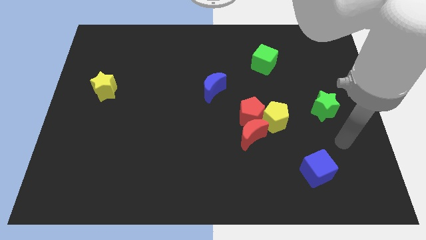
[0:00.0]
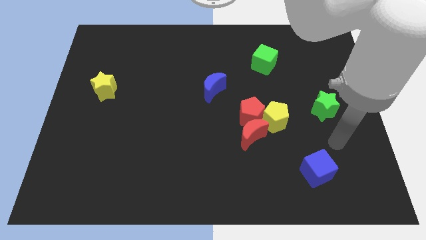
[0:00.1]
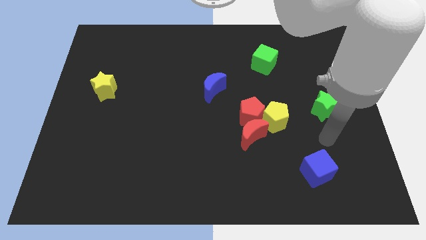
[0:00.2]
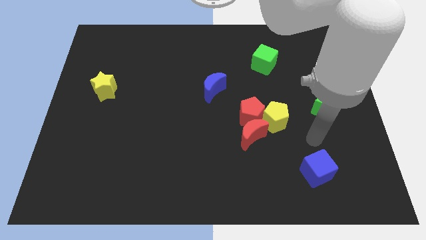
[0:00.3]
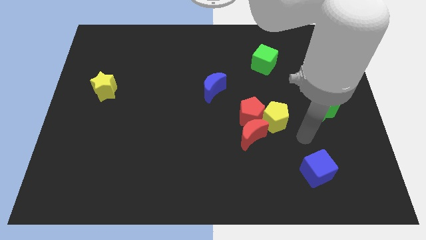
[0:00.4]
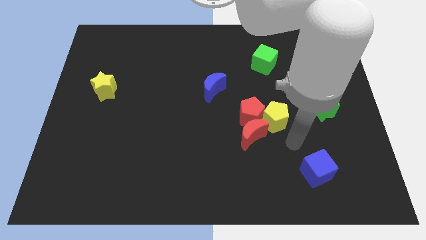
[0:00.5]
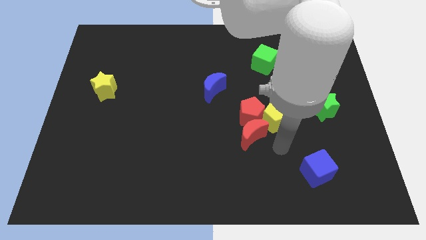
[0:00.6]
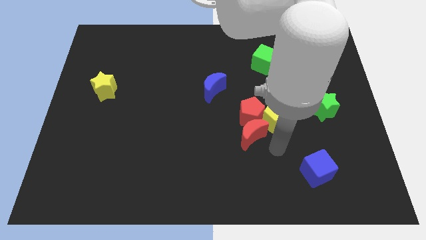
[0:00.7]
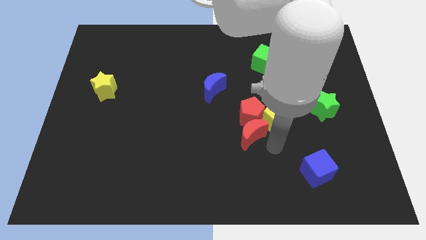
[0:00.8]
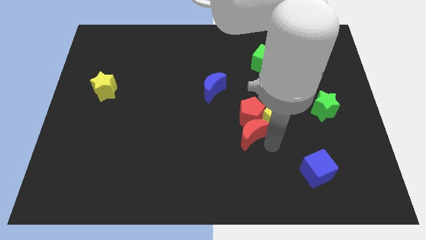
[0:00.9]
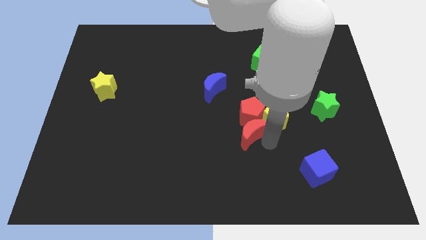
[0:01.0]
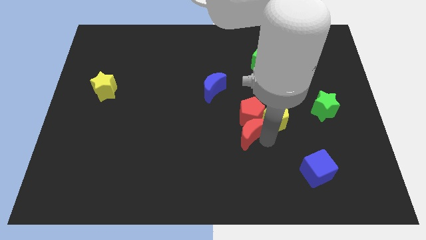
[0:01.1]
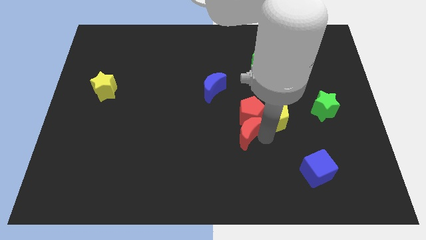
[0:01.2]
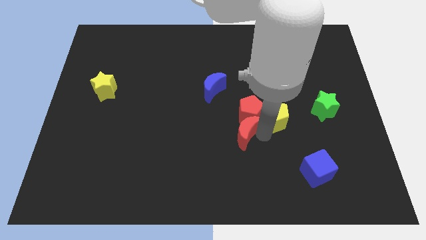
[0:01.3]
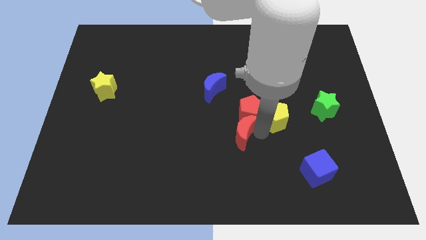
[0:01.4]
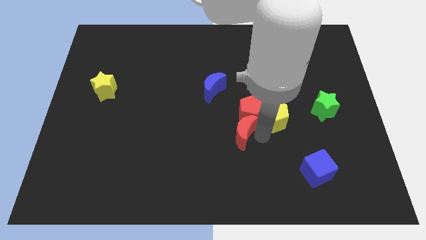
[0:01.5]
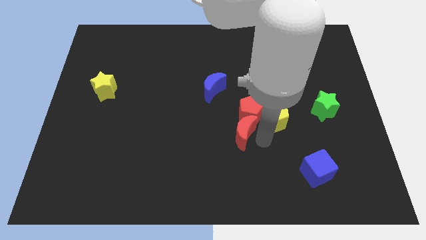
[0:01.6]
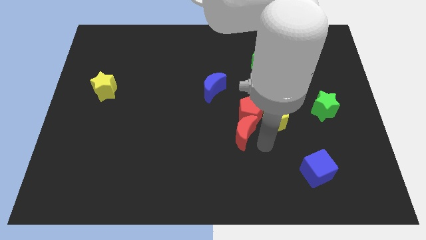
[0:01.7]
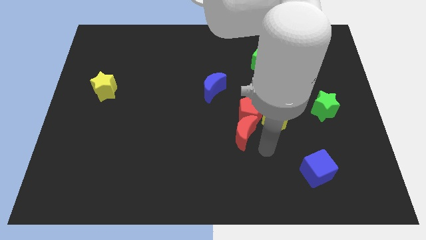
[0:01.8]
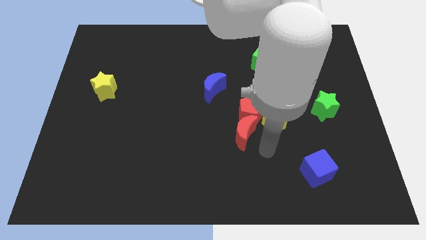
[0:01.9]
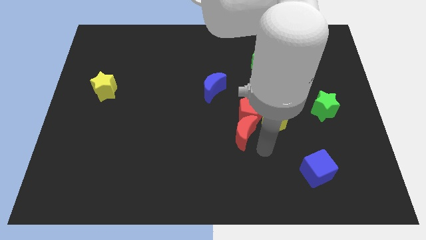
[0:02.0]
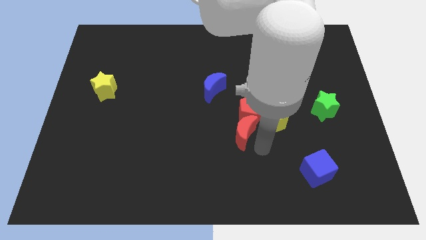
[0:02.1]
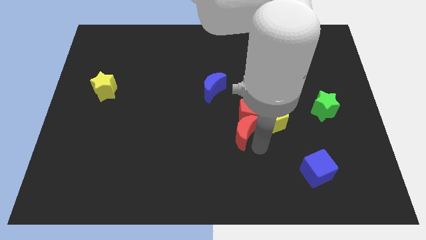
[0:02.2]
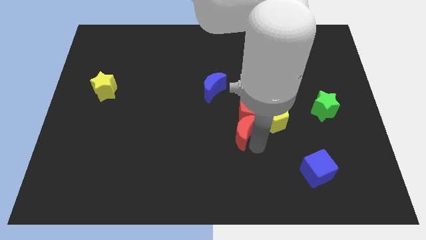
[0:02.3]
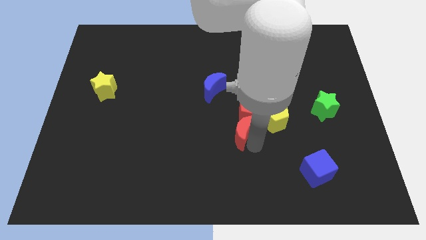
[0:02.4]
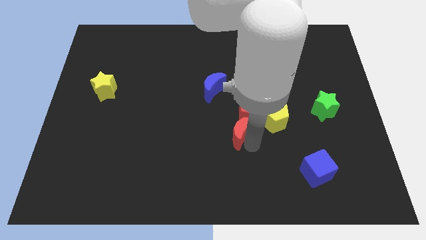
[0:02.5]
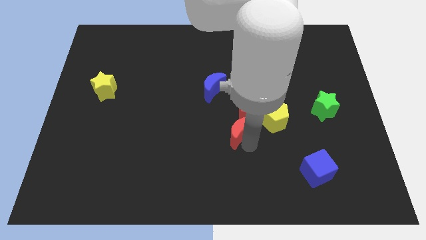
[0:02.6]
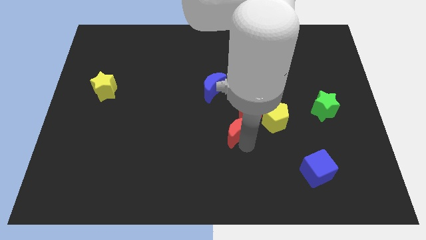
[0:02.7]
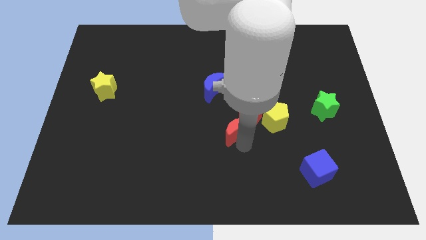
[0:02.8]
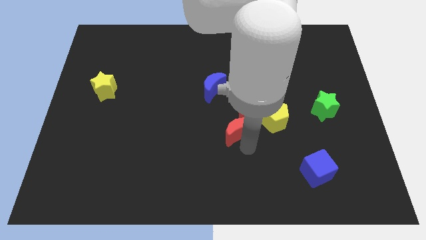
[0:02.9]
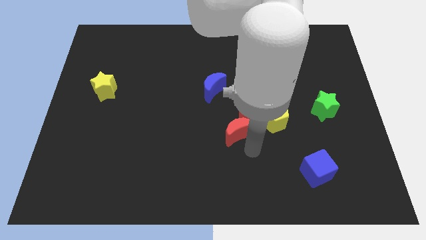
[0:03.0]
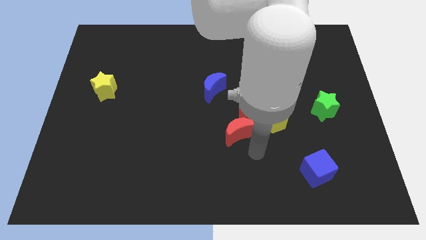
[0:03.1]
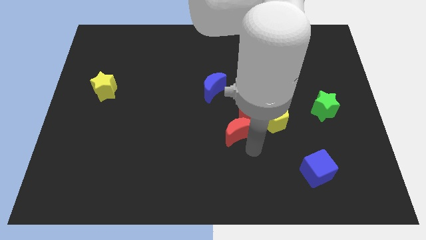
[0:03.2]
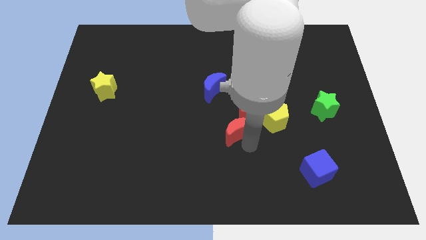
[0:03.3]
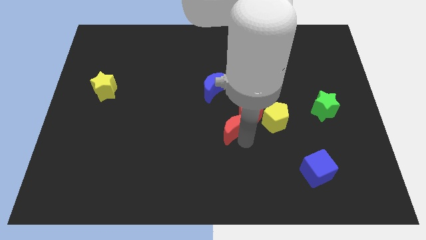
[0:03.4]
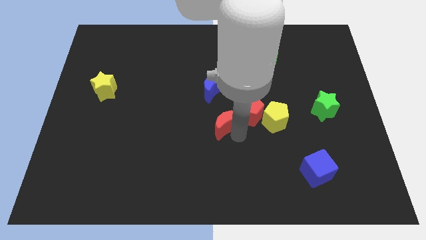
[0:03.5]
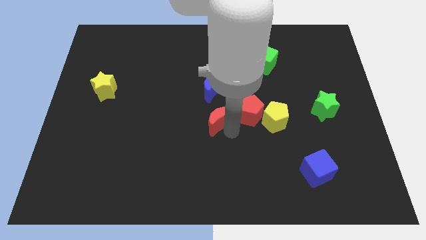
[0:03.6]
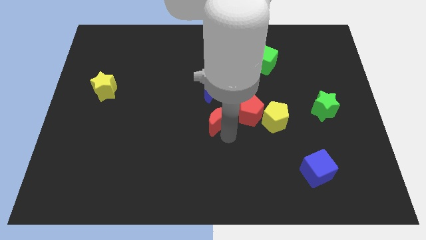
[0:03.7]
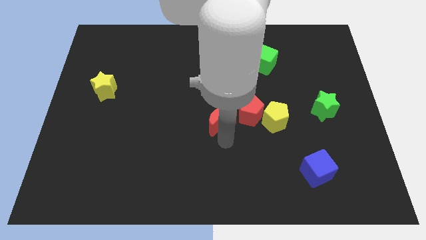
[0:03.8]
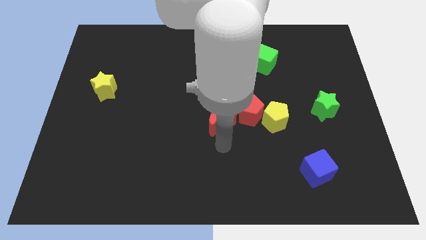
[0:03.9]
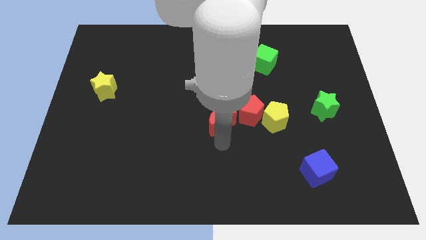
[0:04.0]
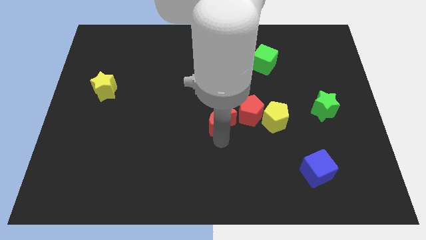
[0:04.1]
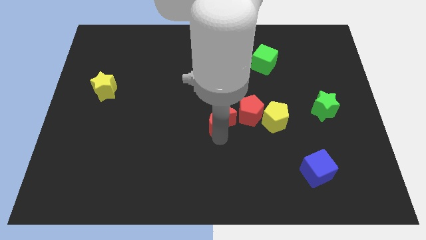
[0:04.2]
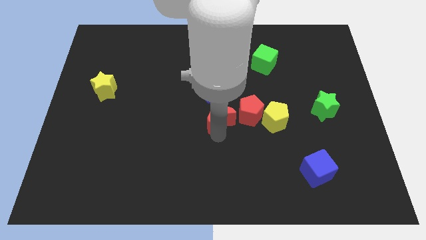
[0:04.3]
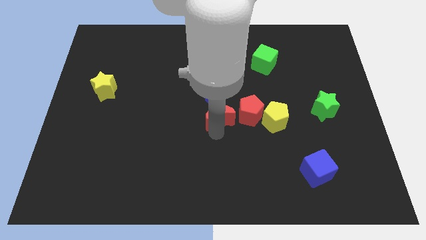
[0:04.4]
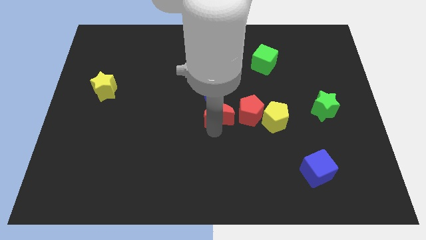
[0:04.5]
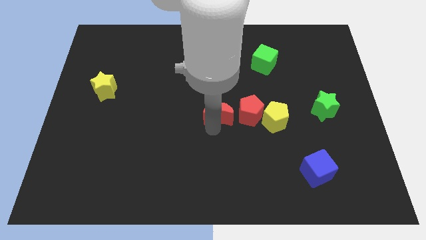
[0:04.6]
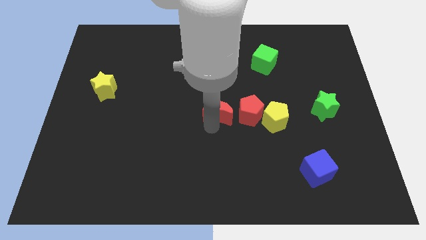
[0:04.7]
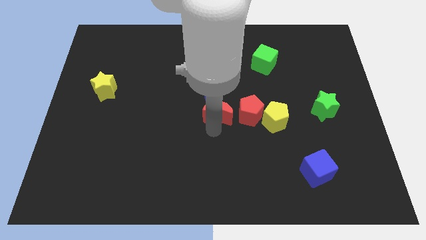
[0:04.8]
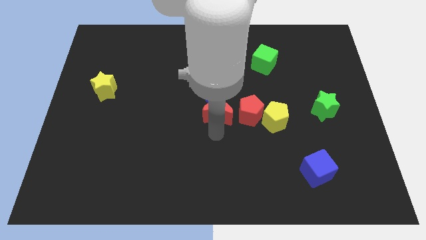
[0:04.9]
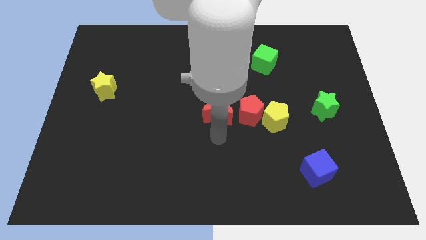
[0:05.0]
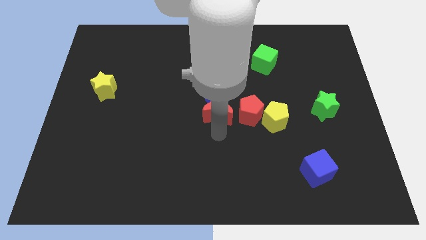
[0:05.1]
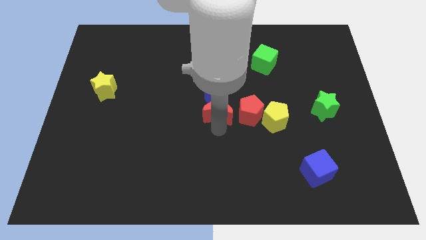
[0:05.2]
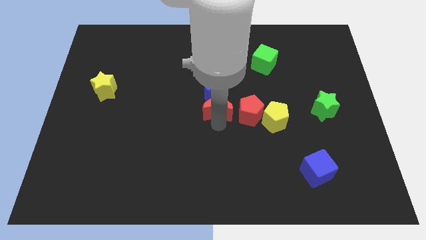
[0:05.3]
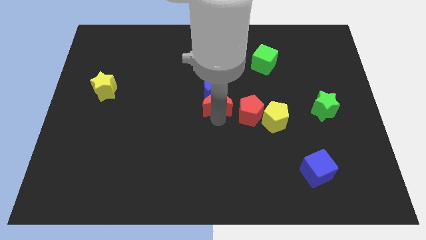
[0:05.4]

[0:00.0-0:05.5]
push the red moon close to the blue moon

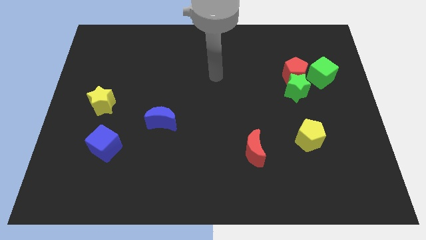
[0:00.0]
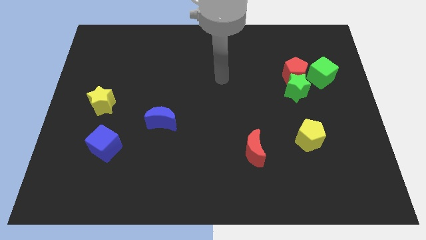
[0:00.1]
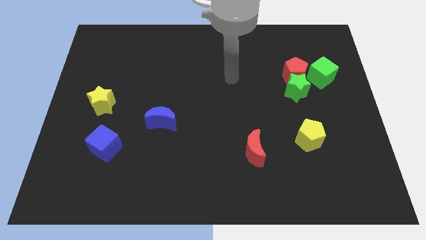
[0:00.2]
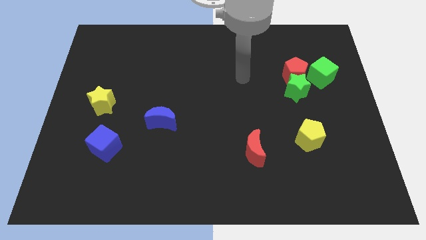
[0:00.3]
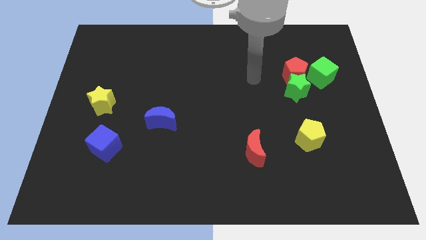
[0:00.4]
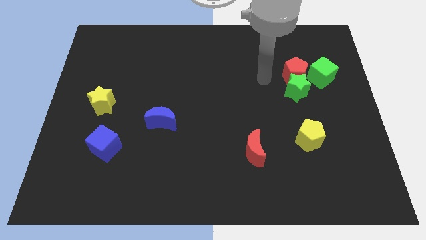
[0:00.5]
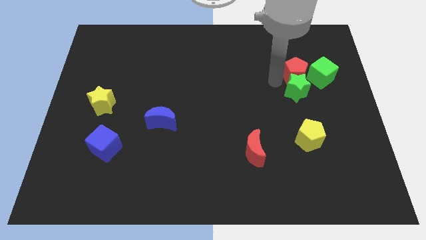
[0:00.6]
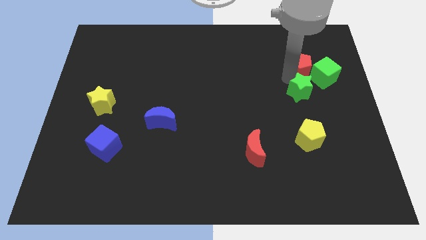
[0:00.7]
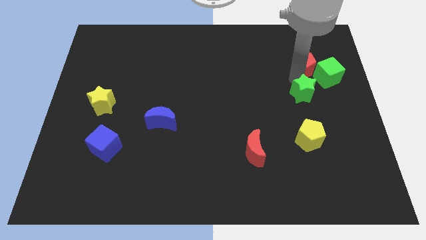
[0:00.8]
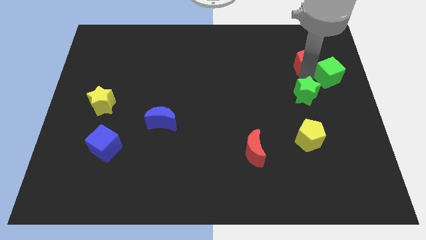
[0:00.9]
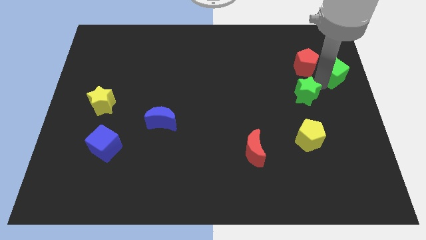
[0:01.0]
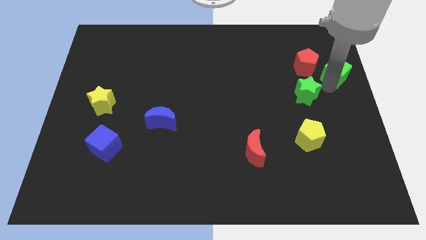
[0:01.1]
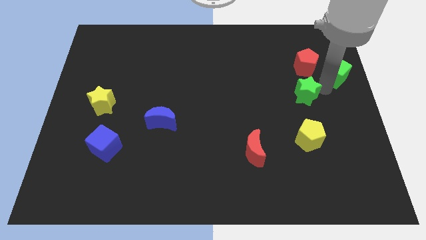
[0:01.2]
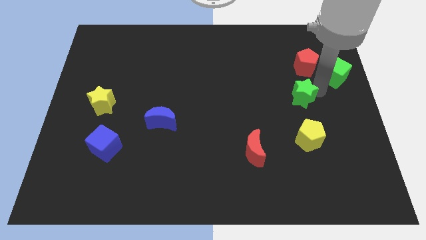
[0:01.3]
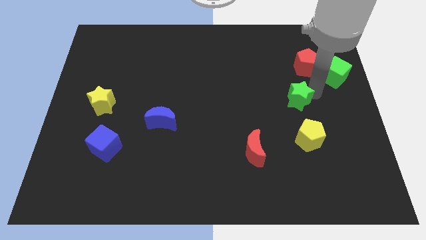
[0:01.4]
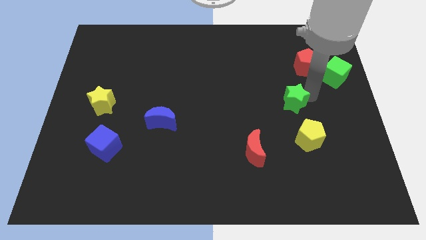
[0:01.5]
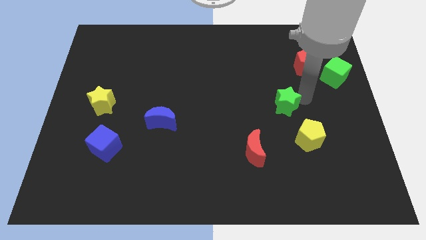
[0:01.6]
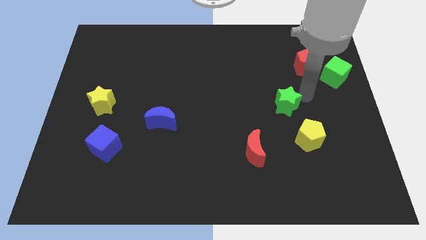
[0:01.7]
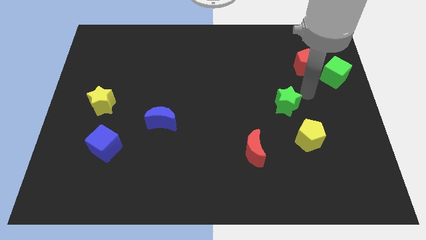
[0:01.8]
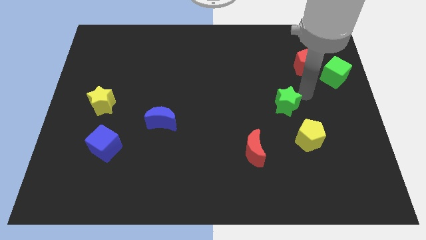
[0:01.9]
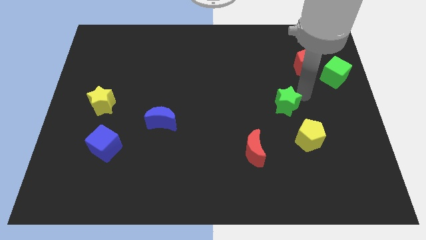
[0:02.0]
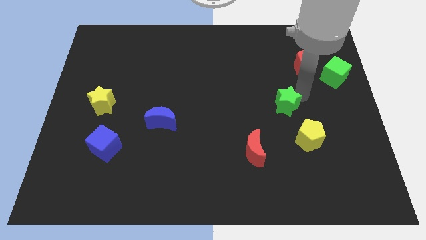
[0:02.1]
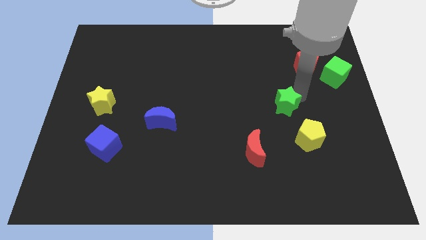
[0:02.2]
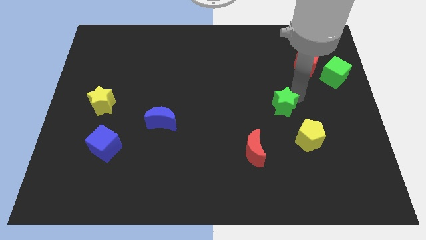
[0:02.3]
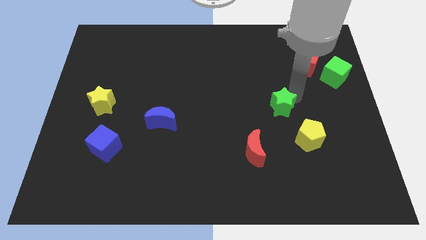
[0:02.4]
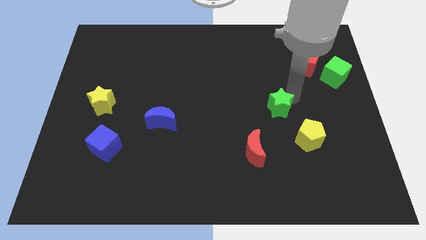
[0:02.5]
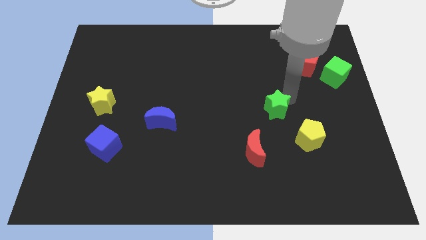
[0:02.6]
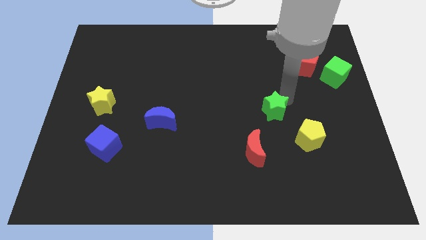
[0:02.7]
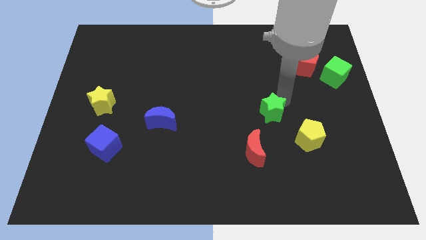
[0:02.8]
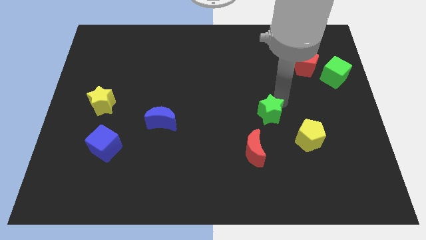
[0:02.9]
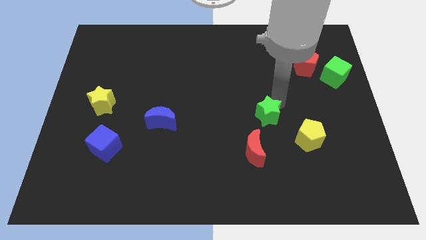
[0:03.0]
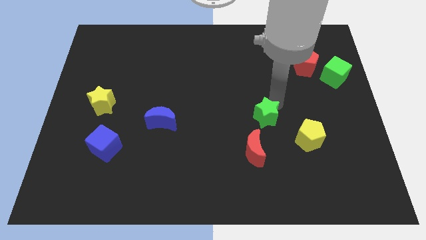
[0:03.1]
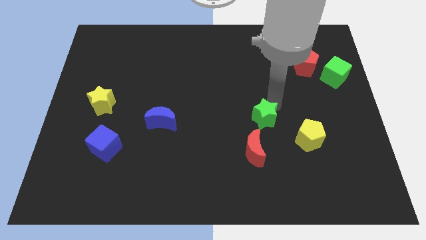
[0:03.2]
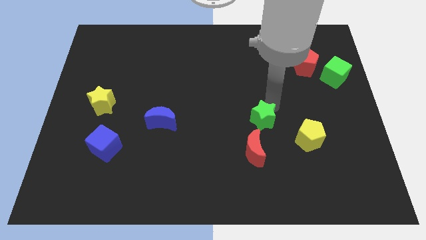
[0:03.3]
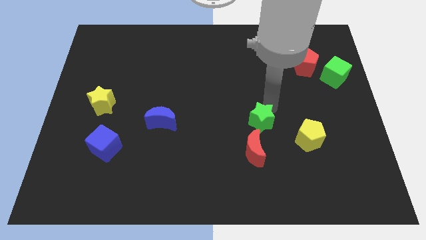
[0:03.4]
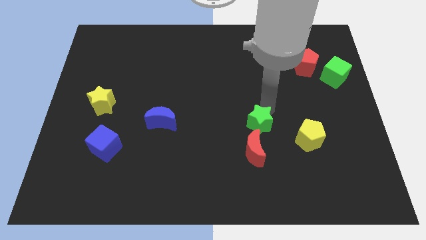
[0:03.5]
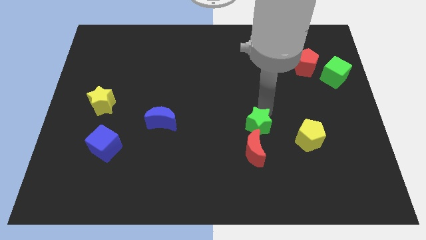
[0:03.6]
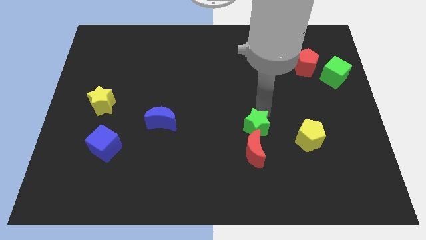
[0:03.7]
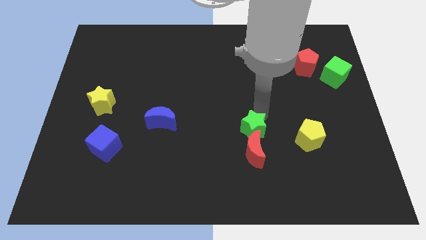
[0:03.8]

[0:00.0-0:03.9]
move the green star next to the red moon
